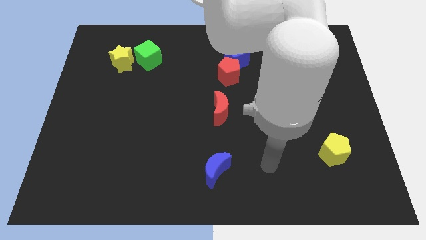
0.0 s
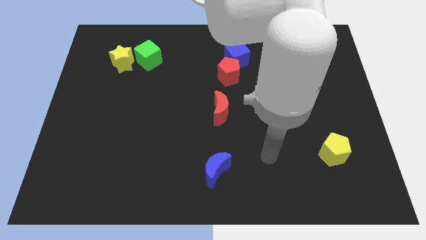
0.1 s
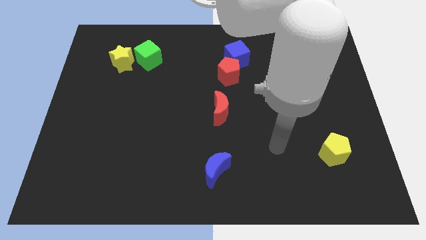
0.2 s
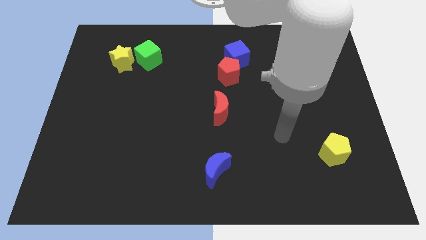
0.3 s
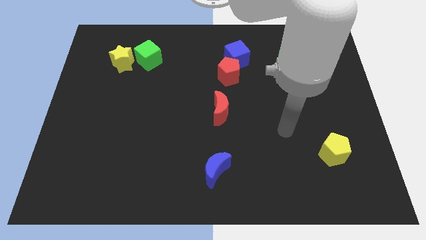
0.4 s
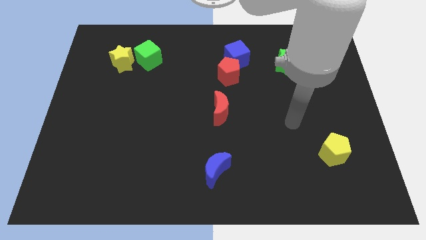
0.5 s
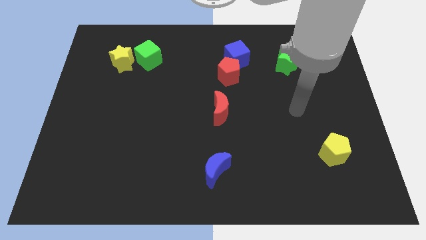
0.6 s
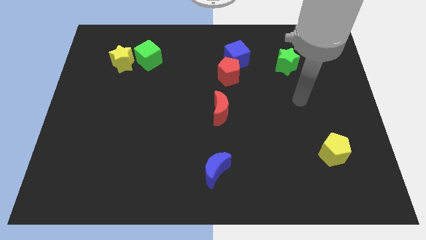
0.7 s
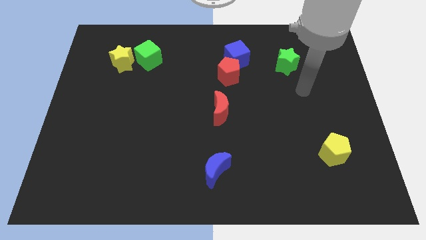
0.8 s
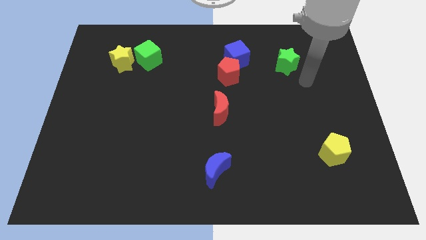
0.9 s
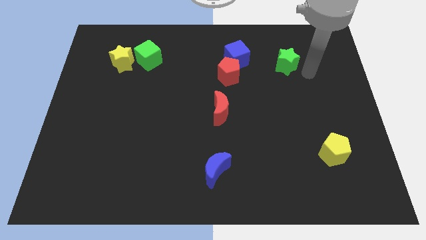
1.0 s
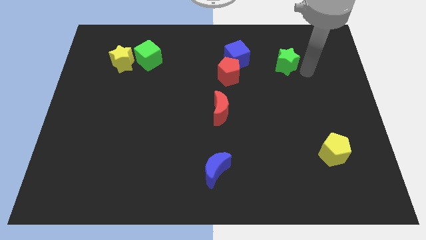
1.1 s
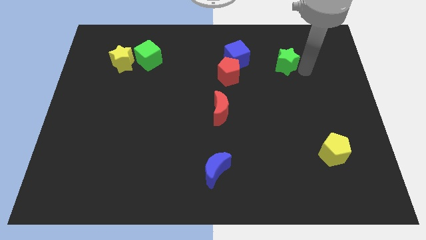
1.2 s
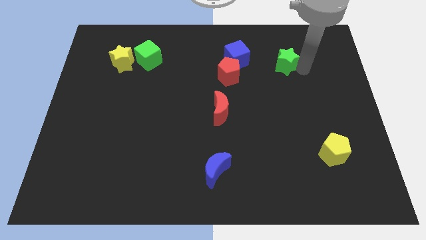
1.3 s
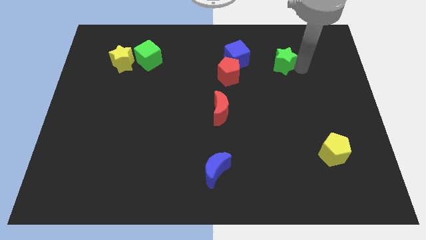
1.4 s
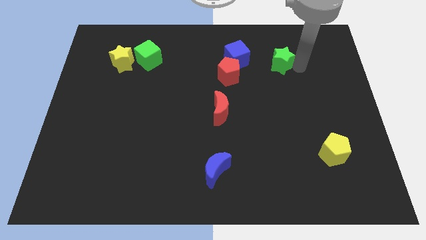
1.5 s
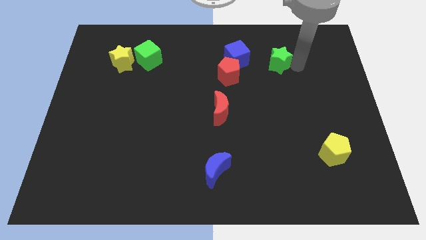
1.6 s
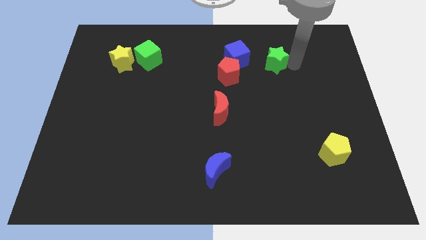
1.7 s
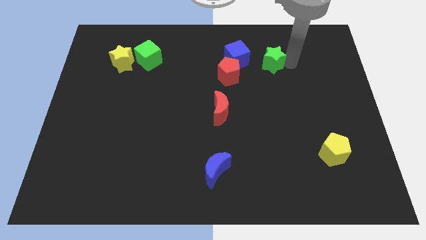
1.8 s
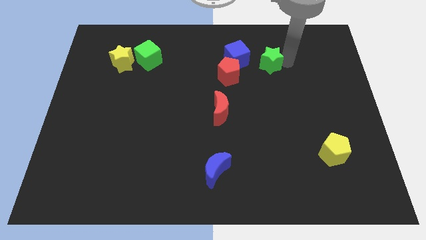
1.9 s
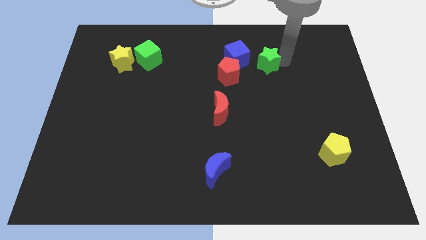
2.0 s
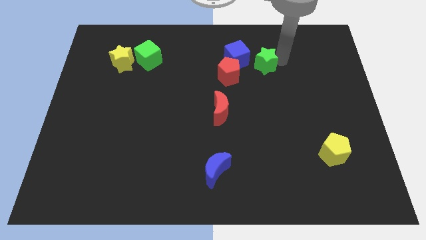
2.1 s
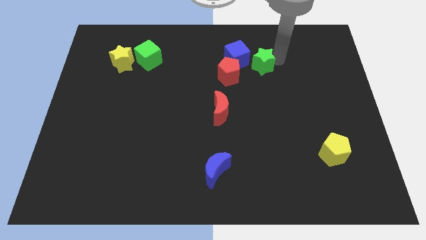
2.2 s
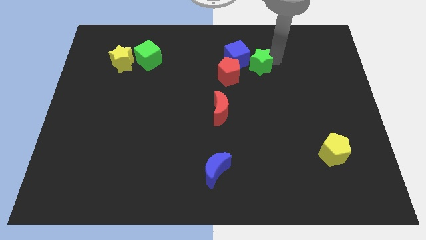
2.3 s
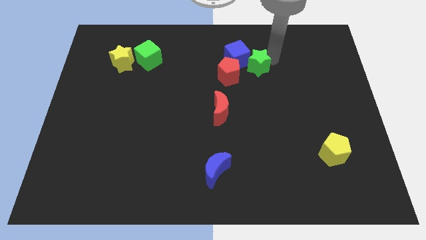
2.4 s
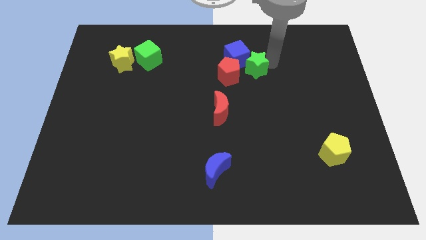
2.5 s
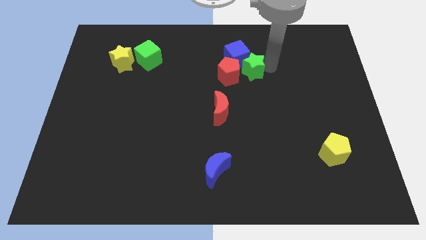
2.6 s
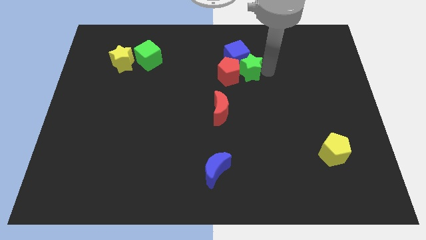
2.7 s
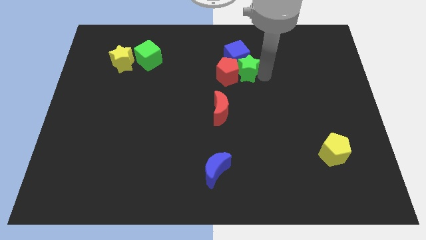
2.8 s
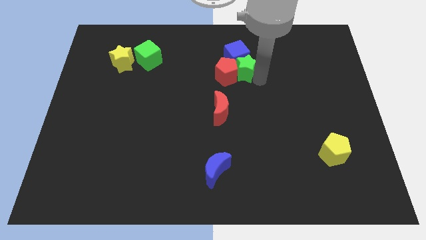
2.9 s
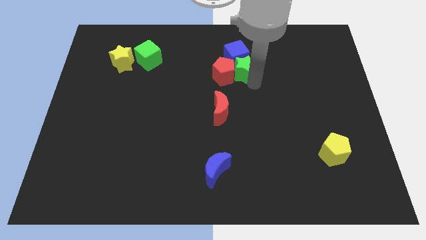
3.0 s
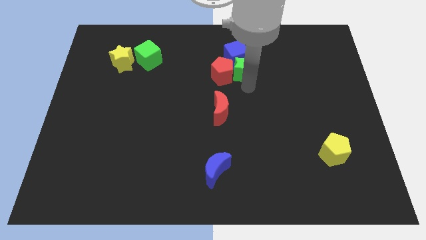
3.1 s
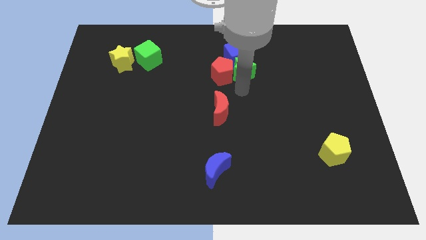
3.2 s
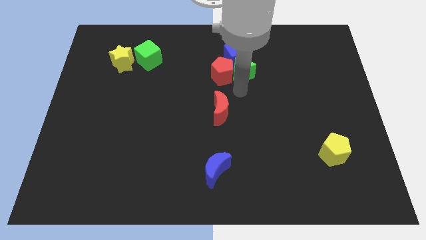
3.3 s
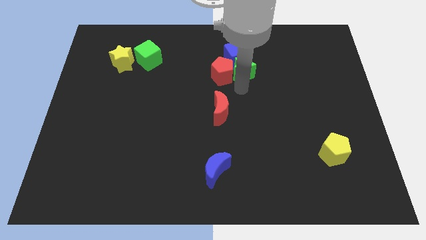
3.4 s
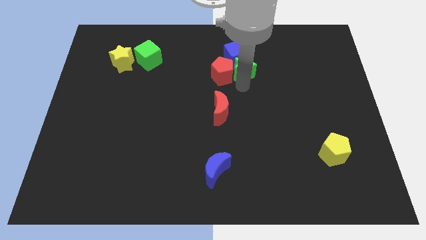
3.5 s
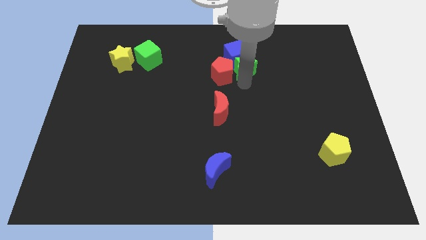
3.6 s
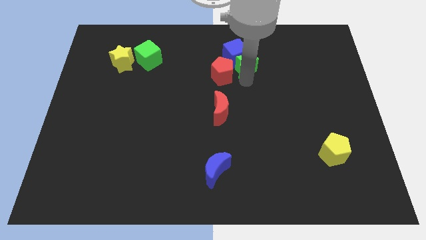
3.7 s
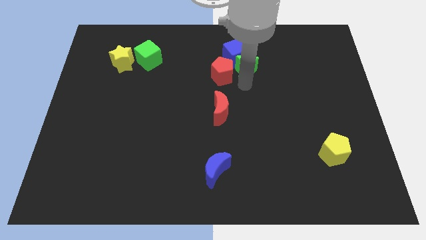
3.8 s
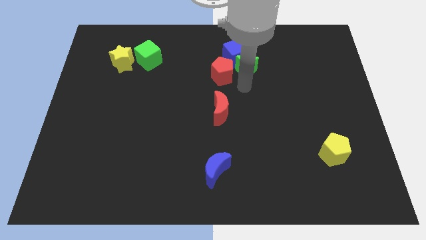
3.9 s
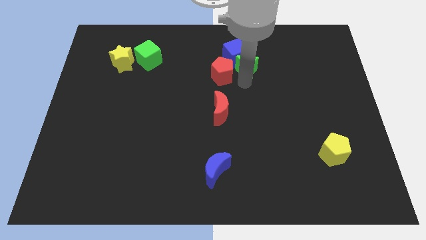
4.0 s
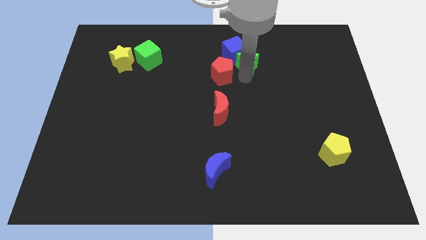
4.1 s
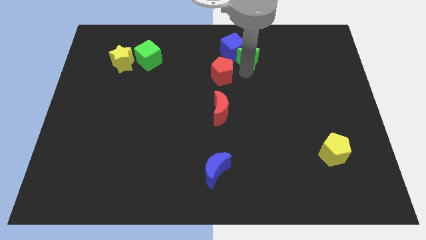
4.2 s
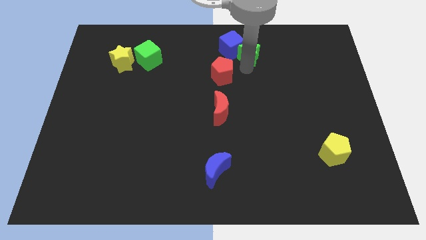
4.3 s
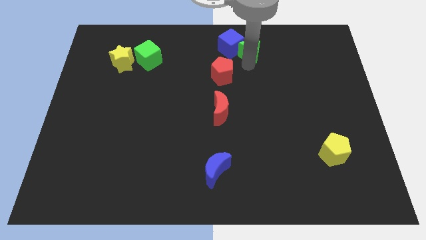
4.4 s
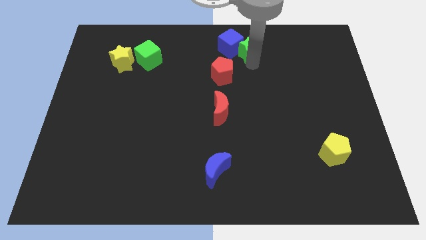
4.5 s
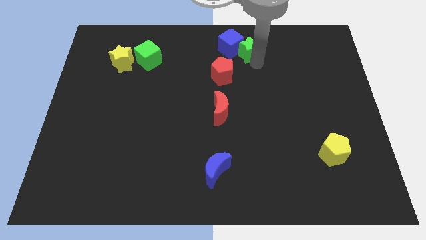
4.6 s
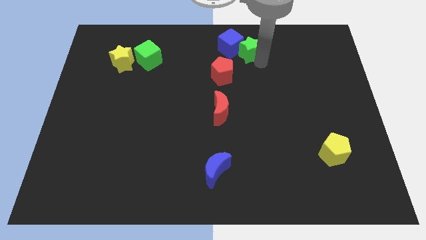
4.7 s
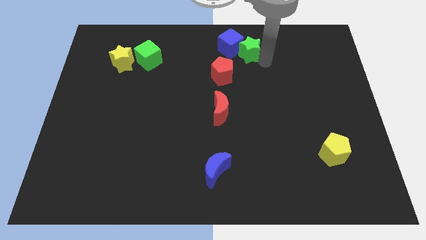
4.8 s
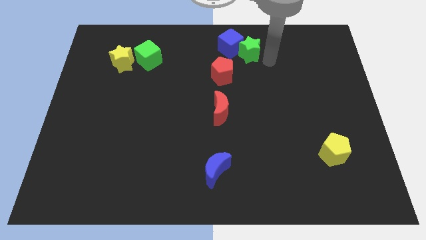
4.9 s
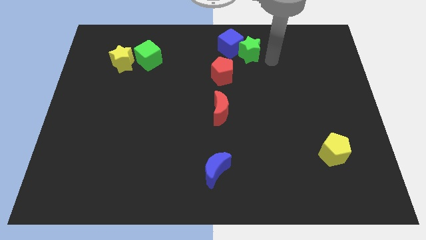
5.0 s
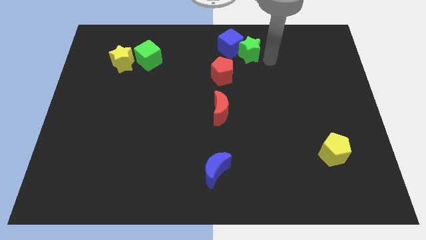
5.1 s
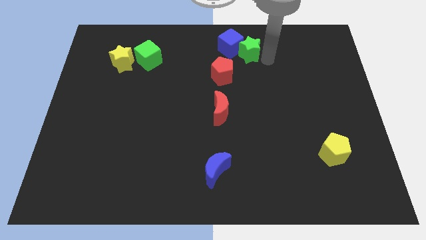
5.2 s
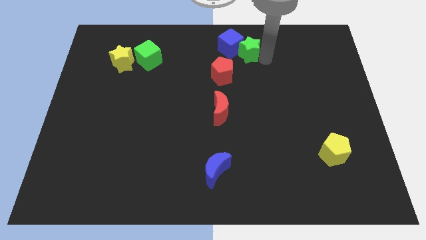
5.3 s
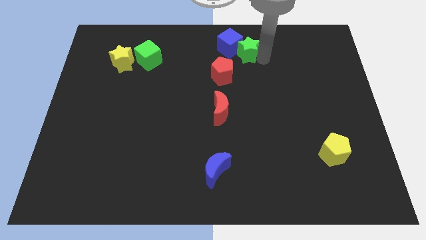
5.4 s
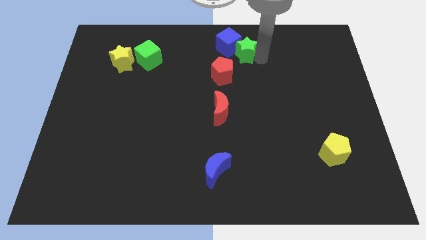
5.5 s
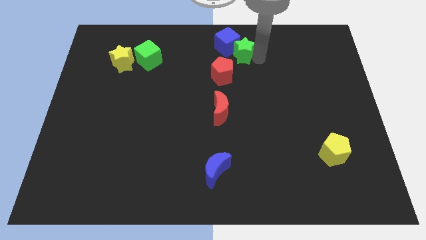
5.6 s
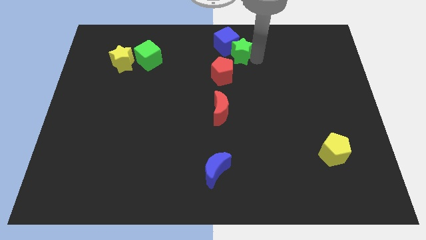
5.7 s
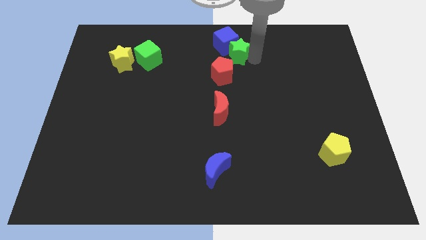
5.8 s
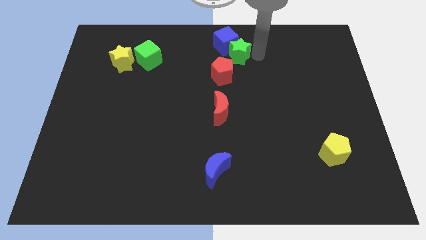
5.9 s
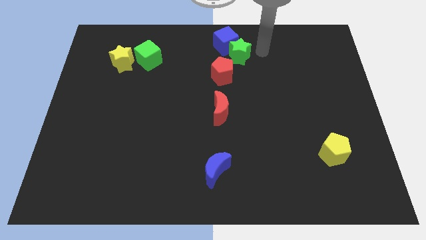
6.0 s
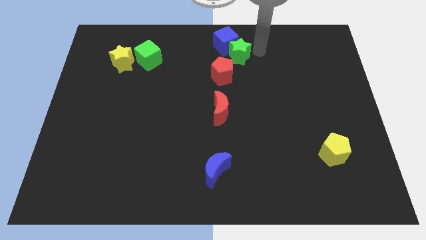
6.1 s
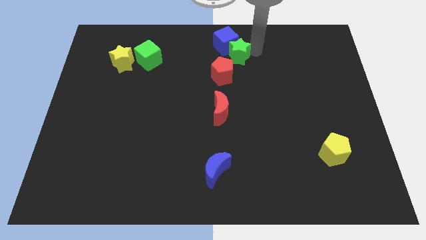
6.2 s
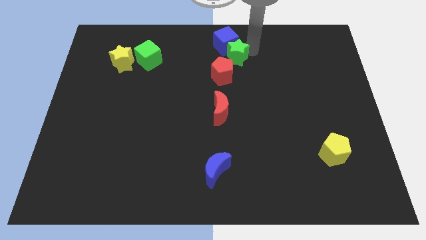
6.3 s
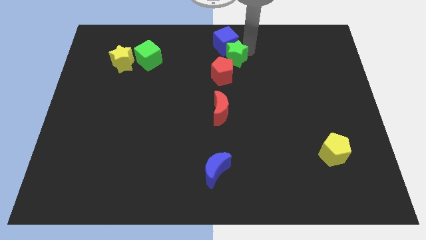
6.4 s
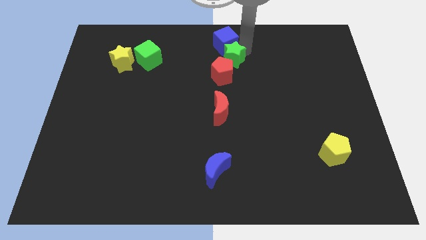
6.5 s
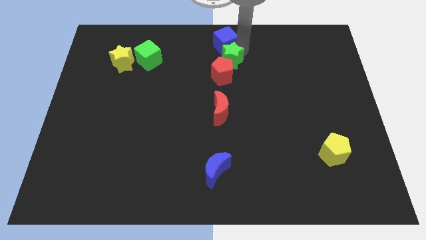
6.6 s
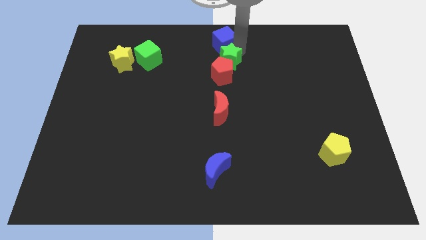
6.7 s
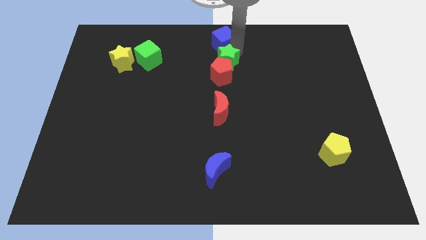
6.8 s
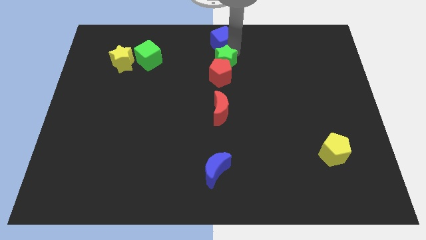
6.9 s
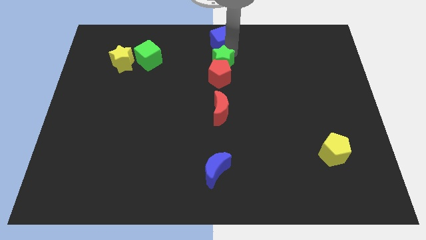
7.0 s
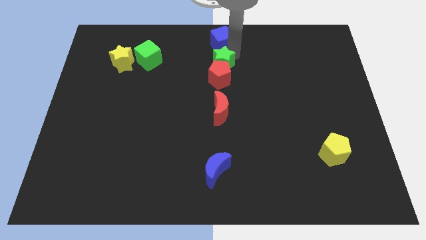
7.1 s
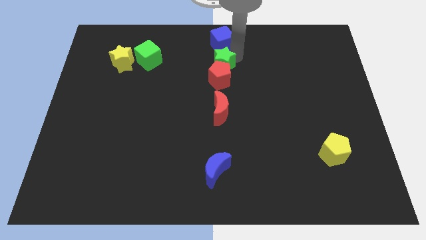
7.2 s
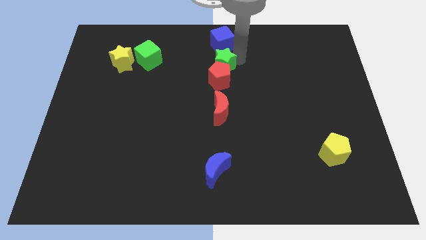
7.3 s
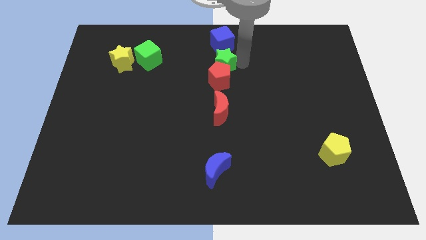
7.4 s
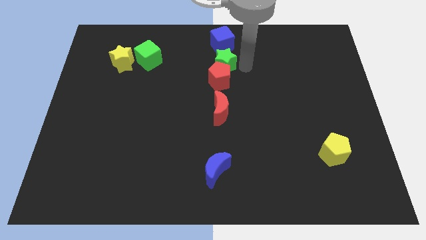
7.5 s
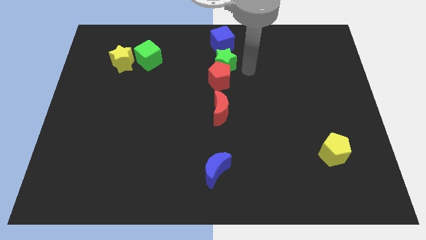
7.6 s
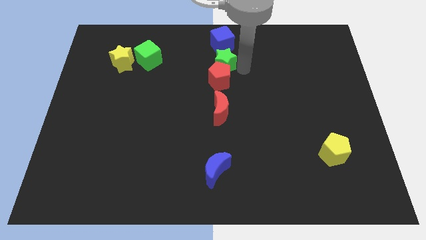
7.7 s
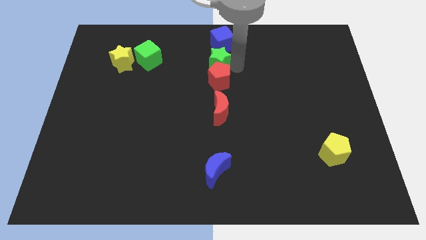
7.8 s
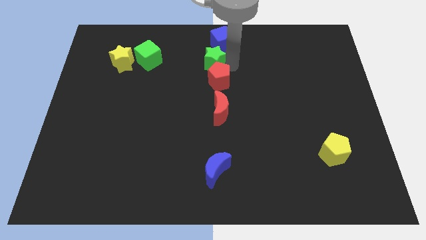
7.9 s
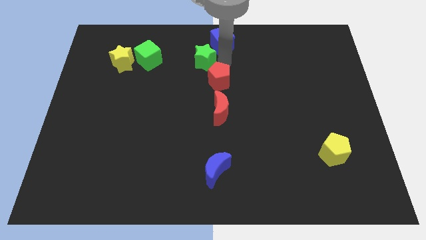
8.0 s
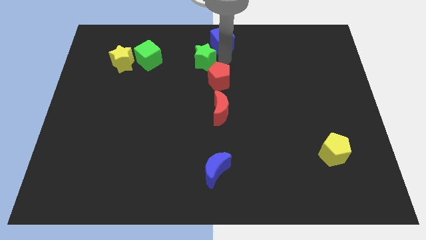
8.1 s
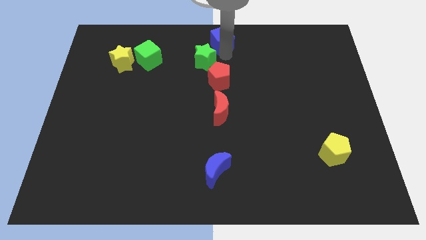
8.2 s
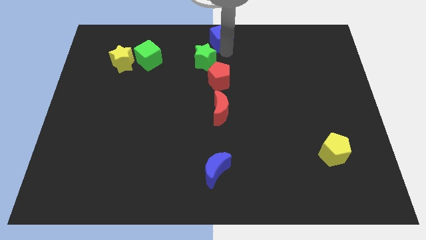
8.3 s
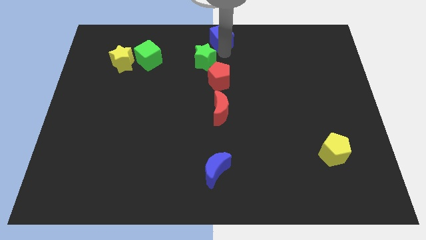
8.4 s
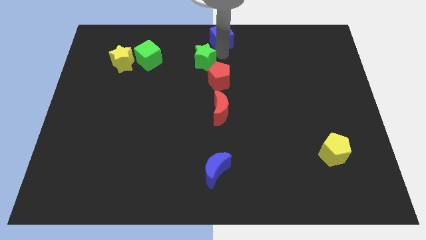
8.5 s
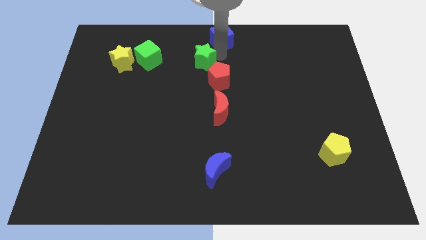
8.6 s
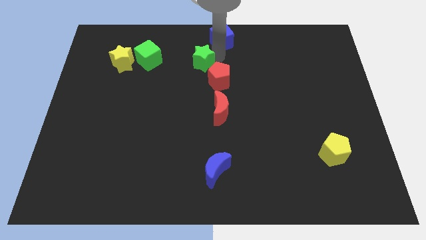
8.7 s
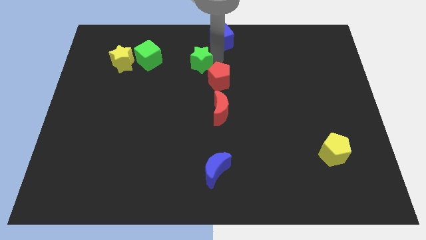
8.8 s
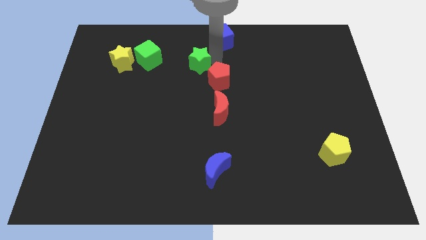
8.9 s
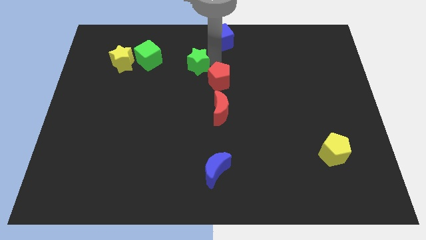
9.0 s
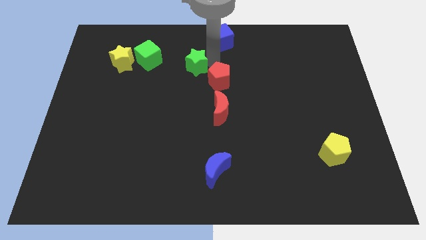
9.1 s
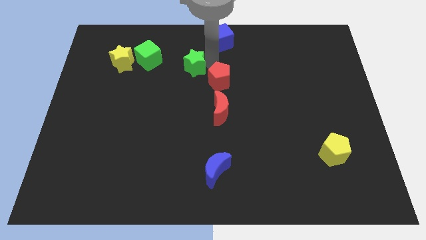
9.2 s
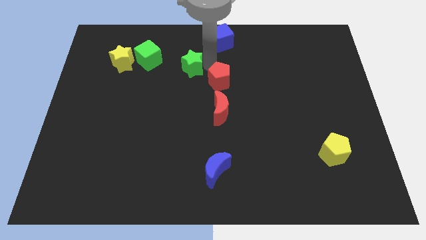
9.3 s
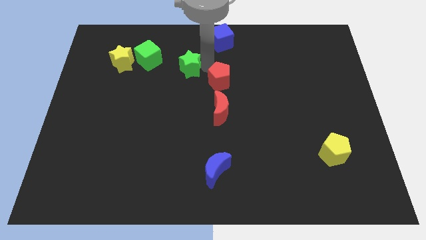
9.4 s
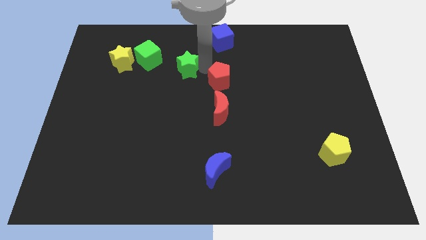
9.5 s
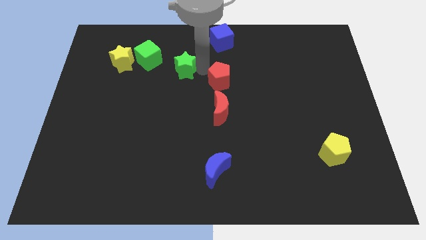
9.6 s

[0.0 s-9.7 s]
push the green star to the bottom right of the green cube
